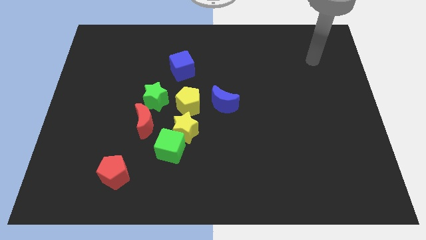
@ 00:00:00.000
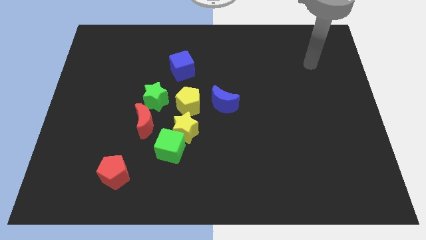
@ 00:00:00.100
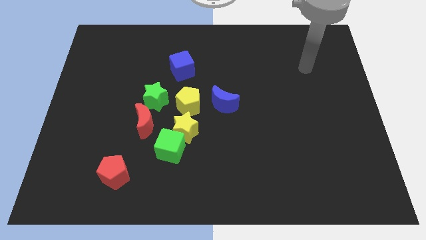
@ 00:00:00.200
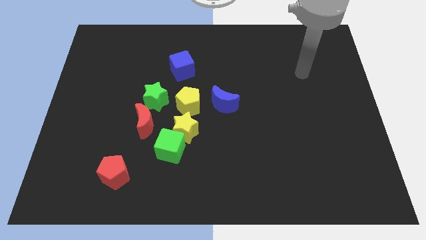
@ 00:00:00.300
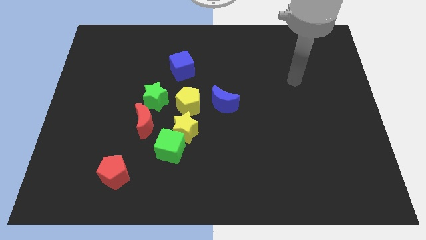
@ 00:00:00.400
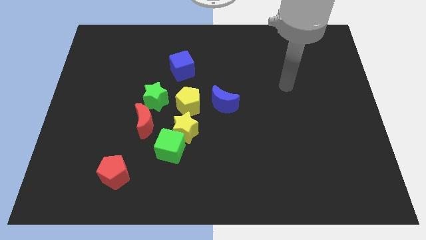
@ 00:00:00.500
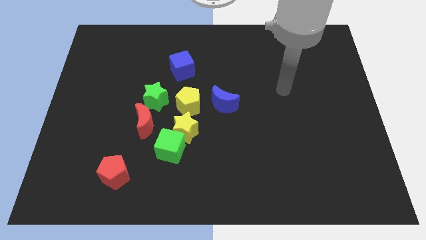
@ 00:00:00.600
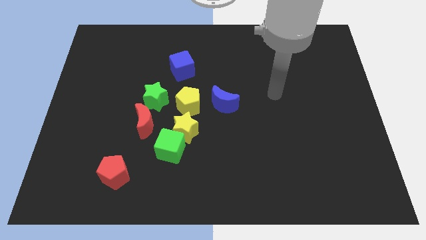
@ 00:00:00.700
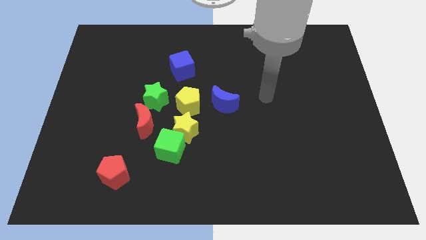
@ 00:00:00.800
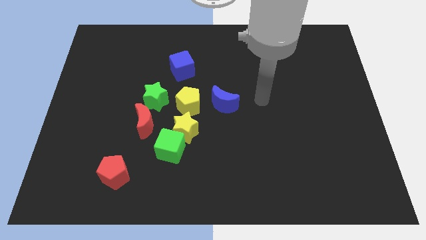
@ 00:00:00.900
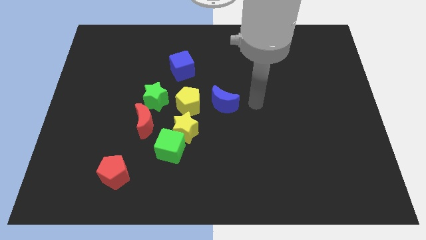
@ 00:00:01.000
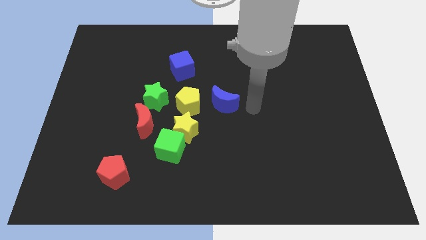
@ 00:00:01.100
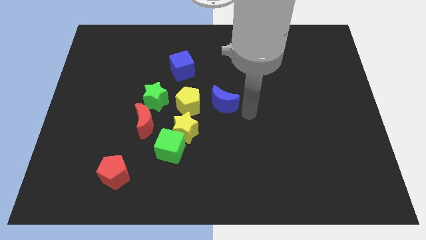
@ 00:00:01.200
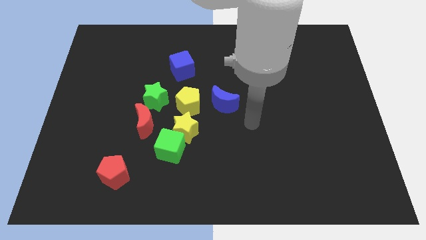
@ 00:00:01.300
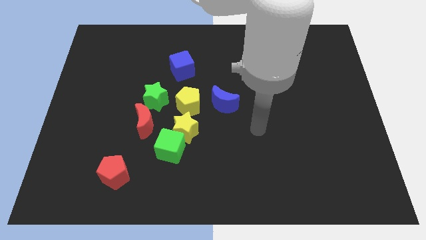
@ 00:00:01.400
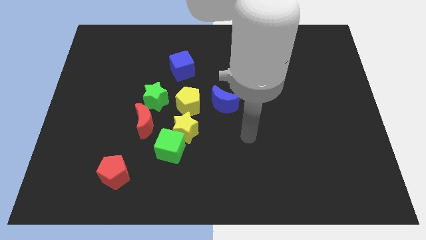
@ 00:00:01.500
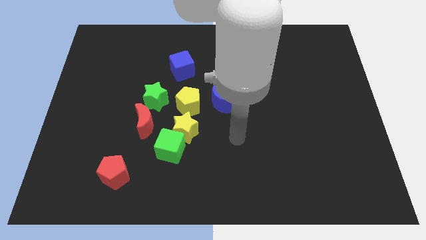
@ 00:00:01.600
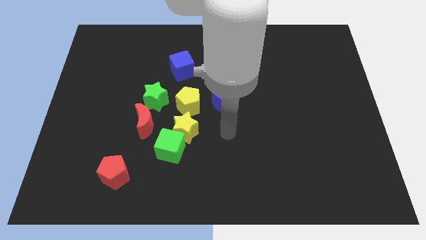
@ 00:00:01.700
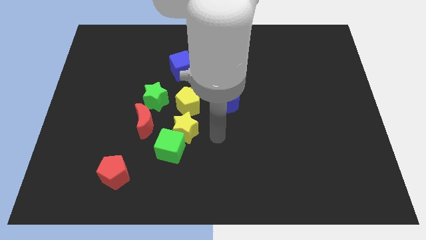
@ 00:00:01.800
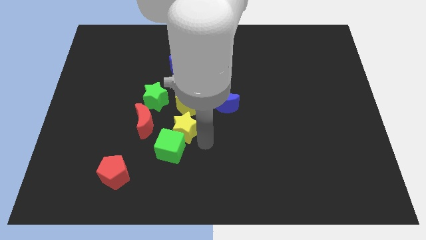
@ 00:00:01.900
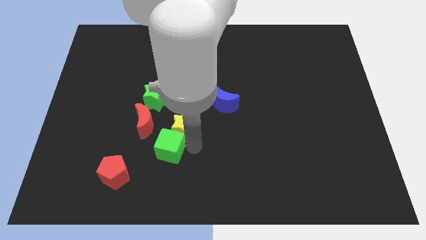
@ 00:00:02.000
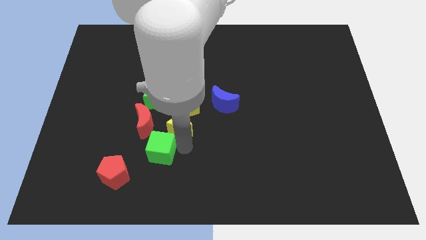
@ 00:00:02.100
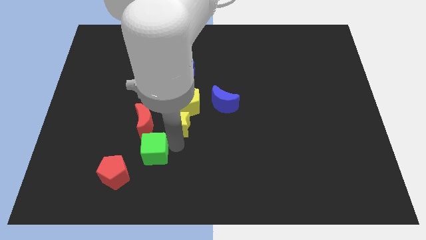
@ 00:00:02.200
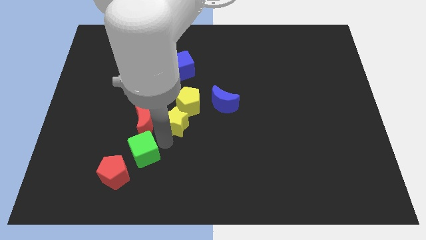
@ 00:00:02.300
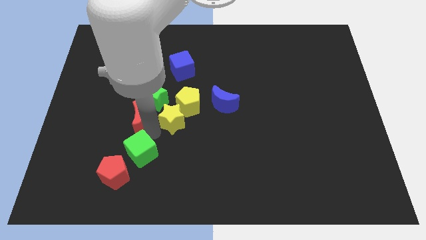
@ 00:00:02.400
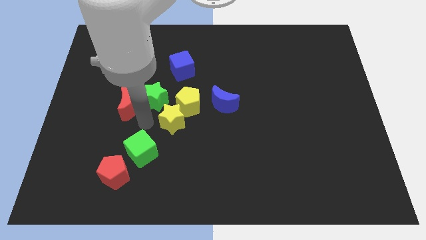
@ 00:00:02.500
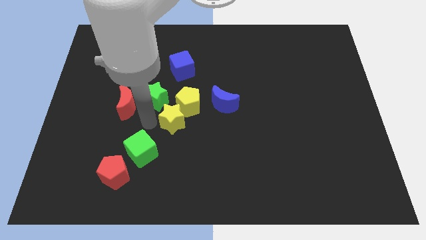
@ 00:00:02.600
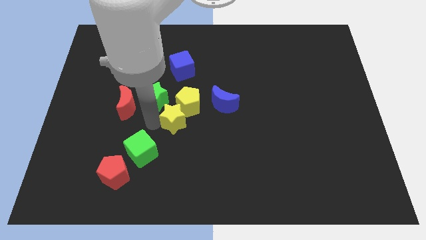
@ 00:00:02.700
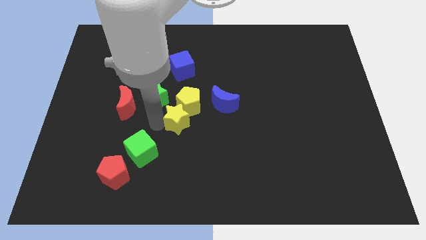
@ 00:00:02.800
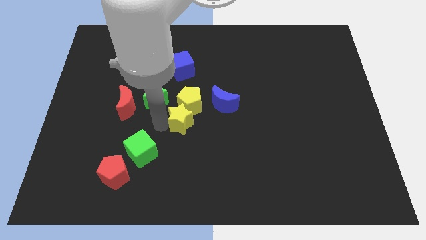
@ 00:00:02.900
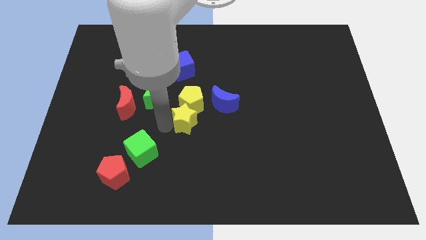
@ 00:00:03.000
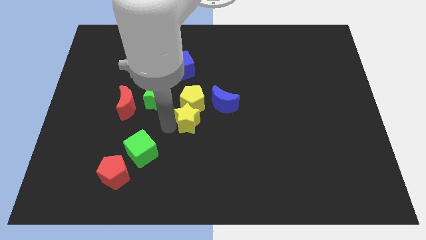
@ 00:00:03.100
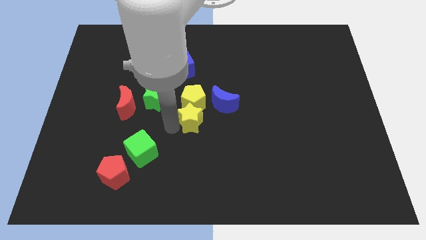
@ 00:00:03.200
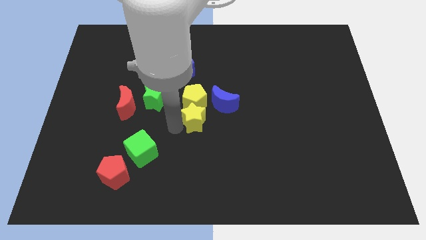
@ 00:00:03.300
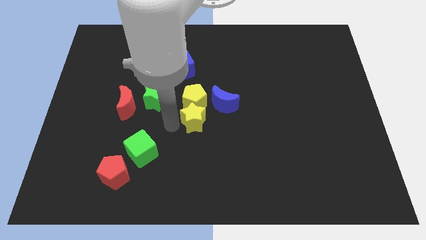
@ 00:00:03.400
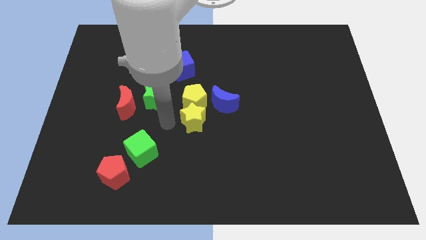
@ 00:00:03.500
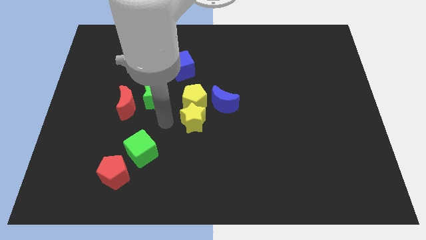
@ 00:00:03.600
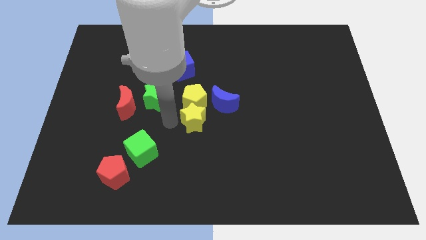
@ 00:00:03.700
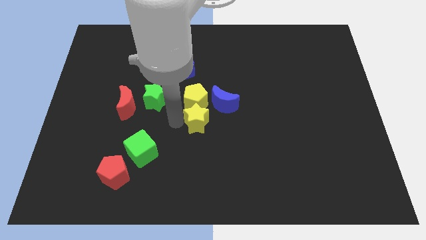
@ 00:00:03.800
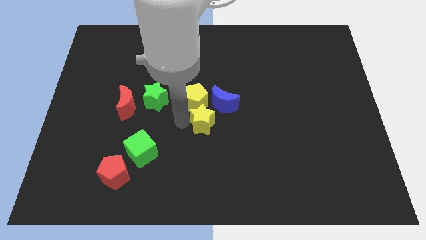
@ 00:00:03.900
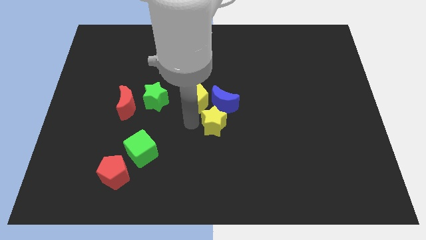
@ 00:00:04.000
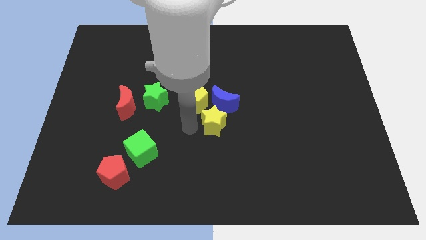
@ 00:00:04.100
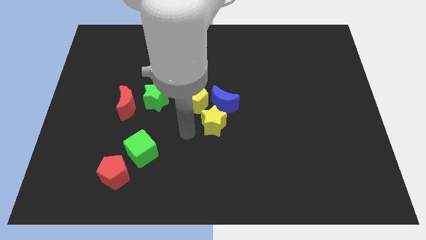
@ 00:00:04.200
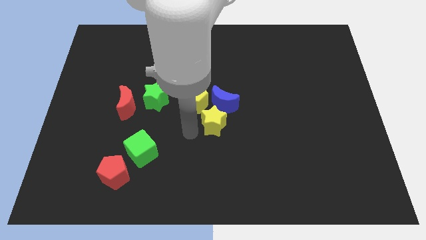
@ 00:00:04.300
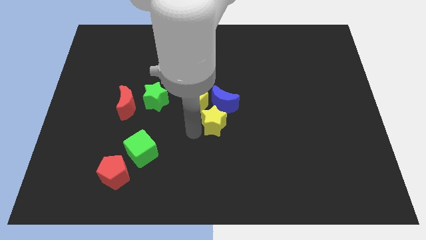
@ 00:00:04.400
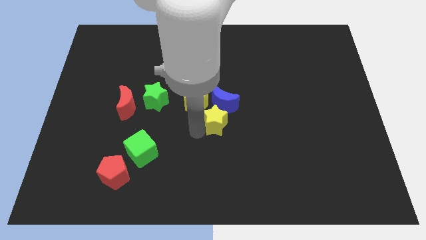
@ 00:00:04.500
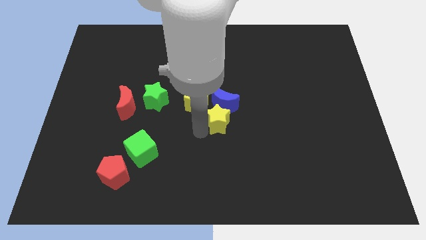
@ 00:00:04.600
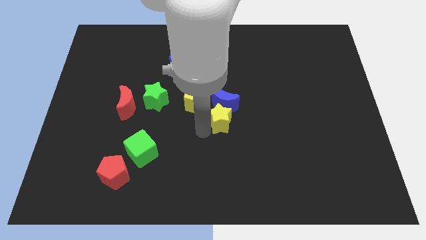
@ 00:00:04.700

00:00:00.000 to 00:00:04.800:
move the yellow star a little upwards and then right

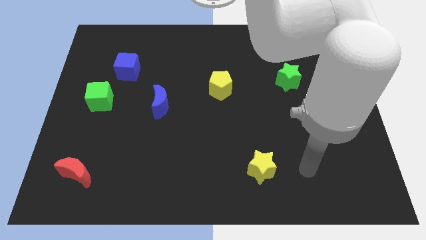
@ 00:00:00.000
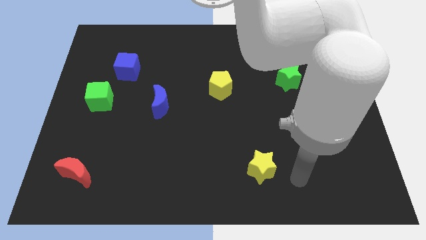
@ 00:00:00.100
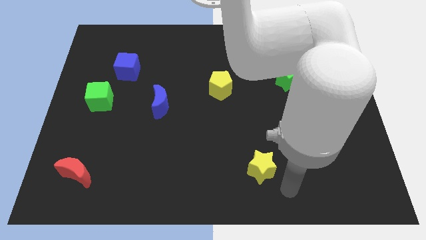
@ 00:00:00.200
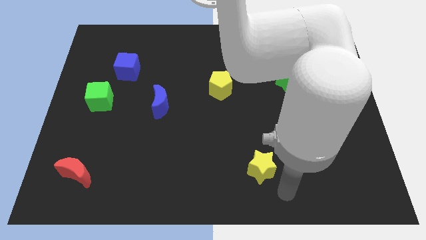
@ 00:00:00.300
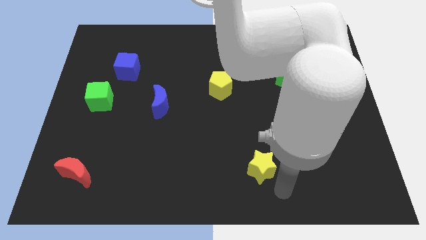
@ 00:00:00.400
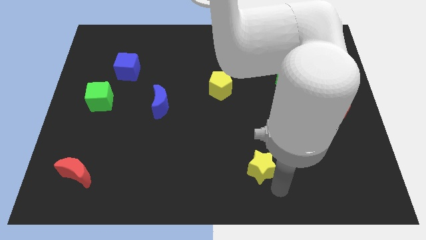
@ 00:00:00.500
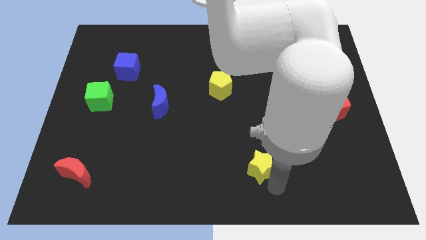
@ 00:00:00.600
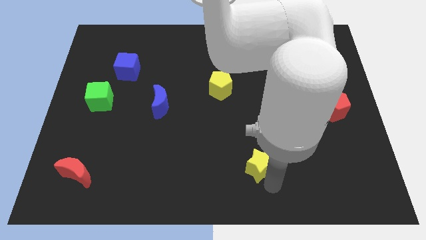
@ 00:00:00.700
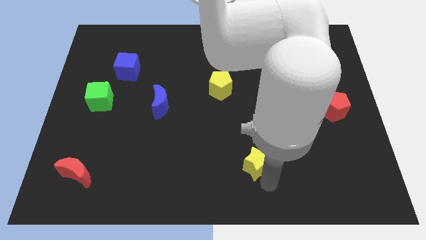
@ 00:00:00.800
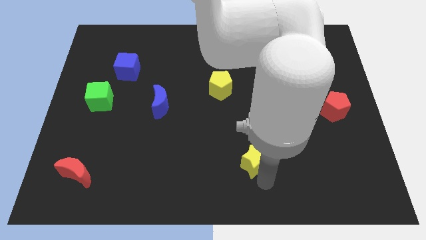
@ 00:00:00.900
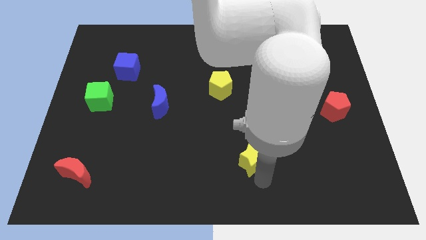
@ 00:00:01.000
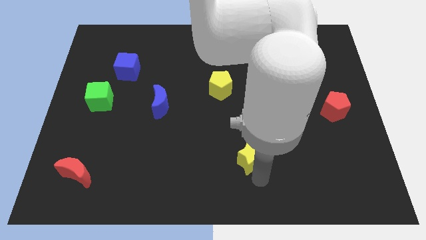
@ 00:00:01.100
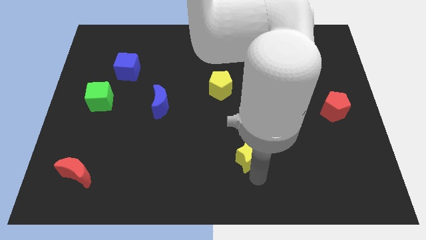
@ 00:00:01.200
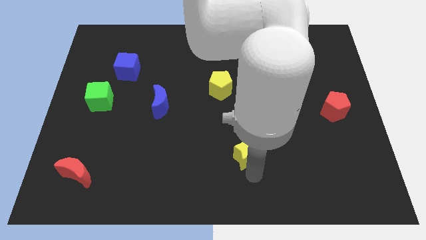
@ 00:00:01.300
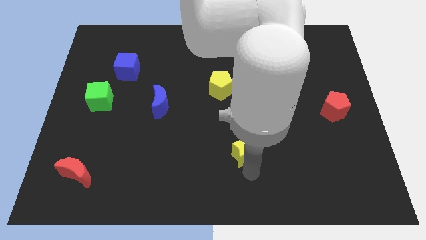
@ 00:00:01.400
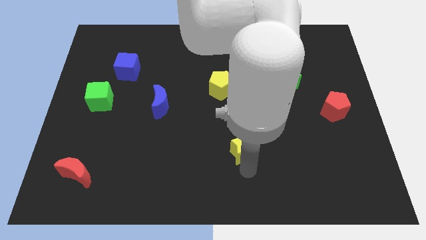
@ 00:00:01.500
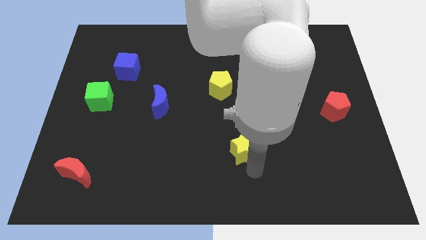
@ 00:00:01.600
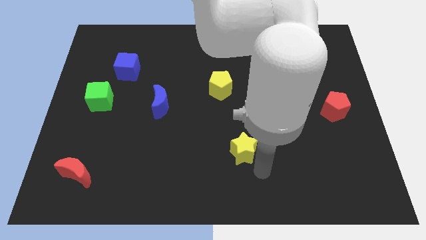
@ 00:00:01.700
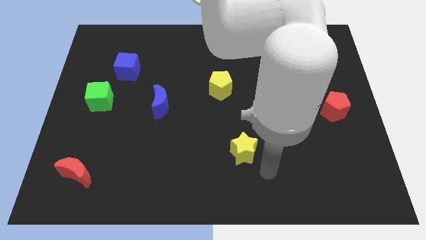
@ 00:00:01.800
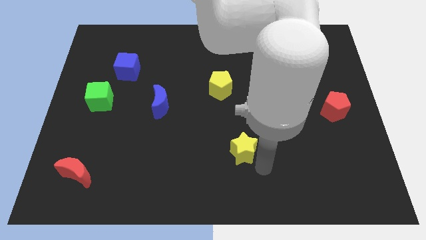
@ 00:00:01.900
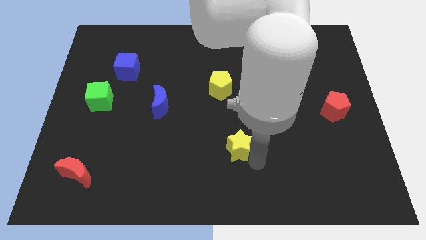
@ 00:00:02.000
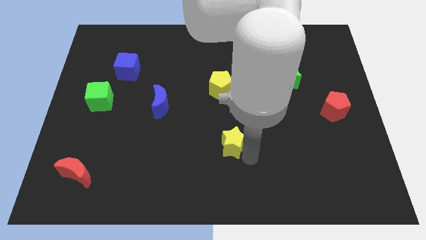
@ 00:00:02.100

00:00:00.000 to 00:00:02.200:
push the yellow star a bit diagonally upwards and to the left

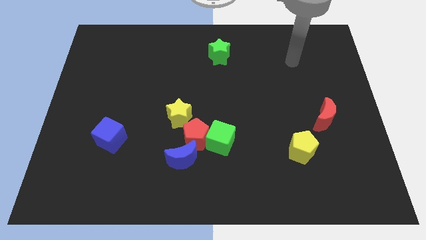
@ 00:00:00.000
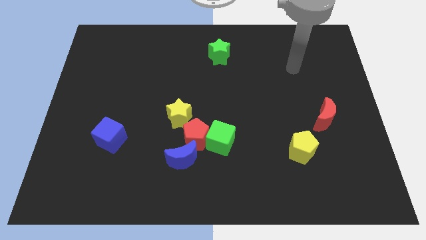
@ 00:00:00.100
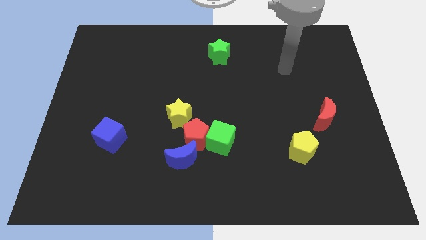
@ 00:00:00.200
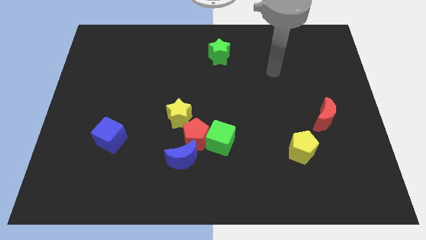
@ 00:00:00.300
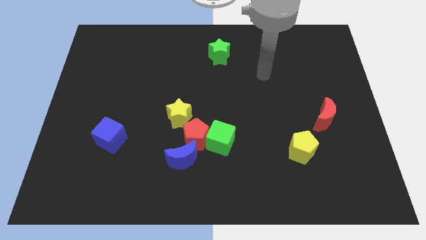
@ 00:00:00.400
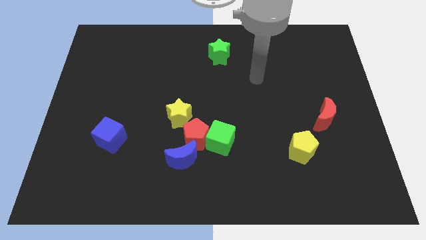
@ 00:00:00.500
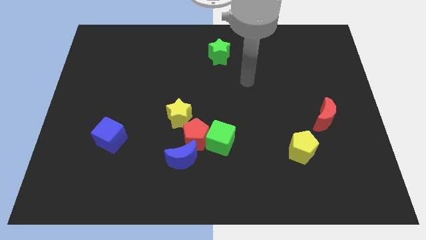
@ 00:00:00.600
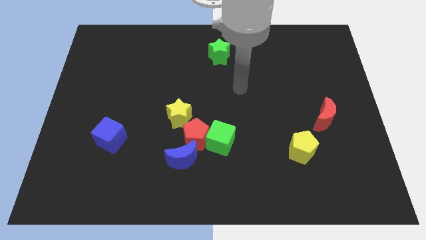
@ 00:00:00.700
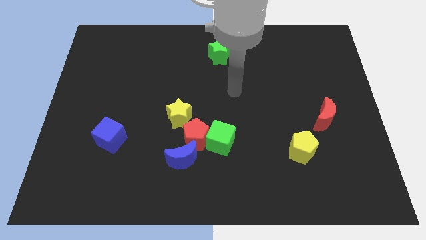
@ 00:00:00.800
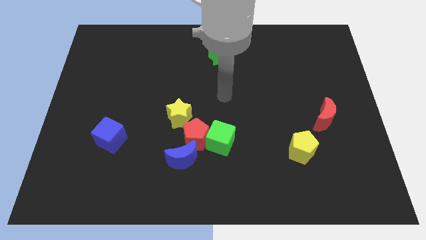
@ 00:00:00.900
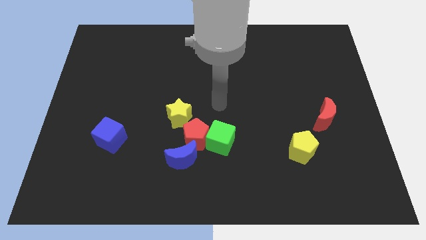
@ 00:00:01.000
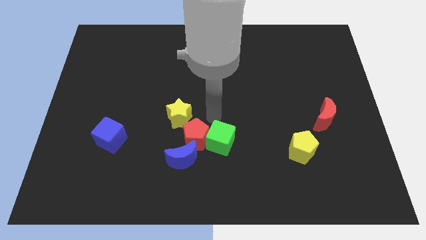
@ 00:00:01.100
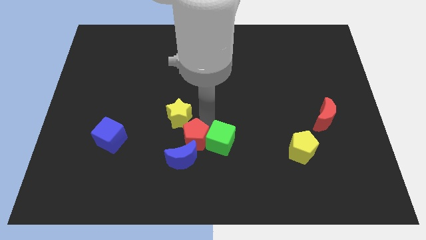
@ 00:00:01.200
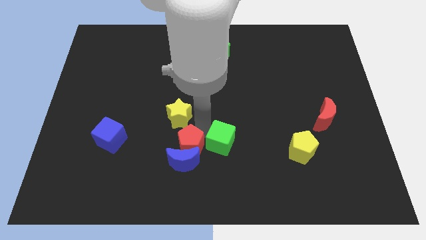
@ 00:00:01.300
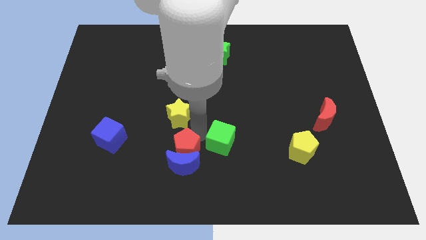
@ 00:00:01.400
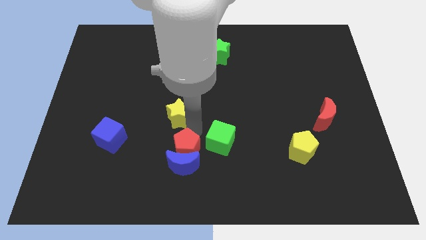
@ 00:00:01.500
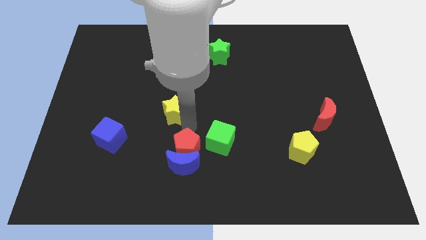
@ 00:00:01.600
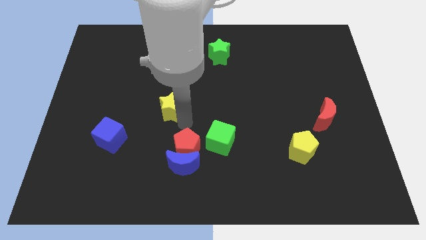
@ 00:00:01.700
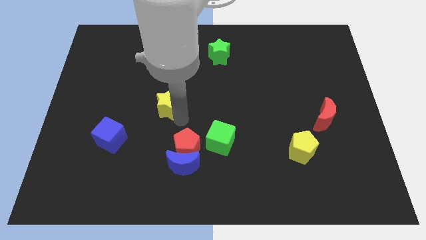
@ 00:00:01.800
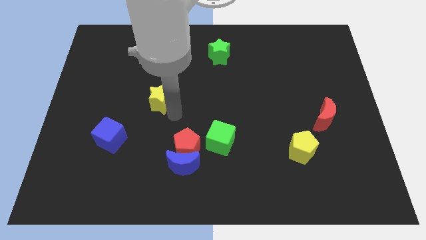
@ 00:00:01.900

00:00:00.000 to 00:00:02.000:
slide the yellow star slightly upwards and to the left
